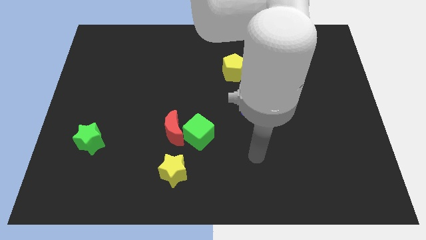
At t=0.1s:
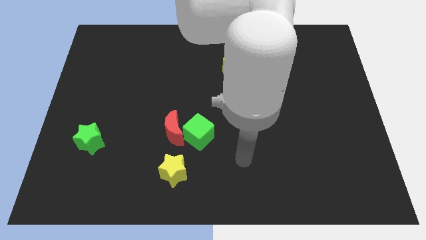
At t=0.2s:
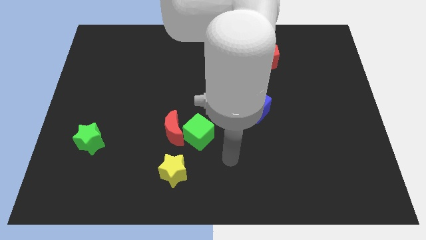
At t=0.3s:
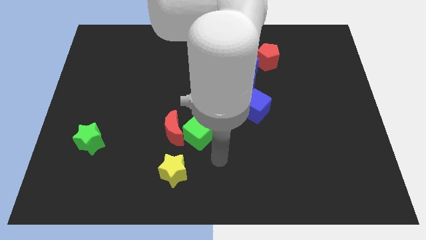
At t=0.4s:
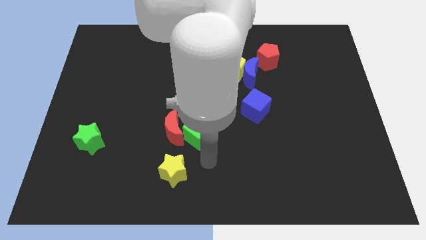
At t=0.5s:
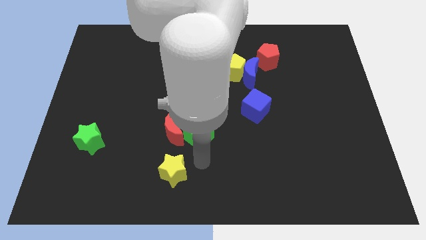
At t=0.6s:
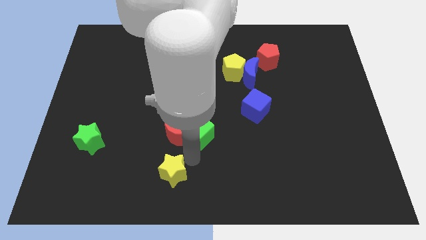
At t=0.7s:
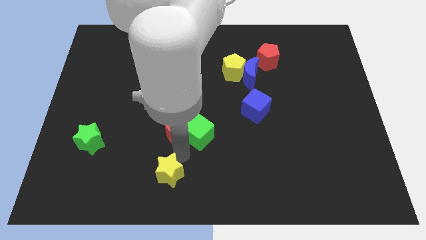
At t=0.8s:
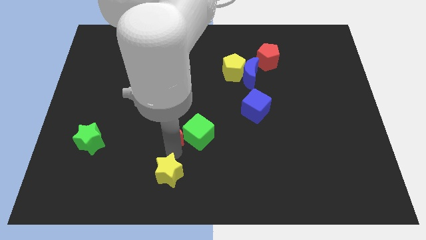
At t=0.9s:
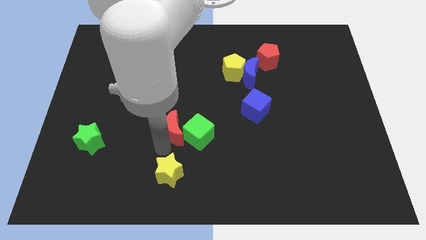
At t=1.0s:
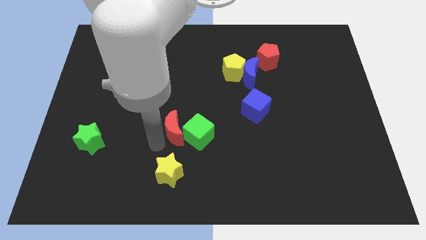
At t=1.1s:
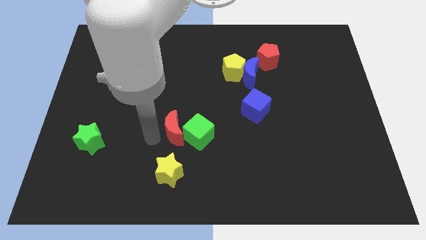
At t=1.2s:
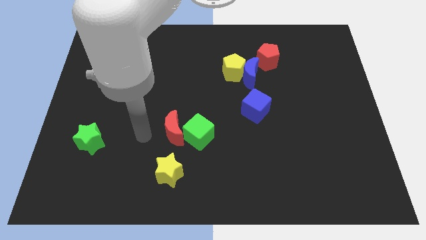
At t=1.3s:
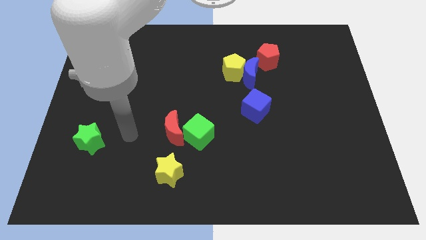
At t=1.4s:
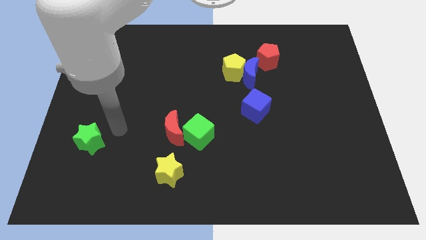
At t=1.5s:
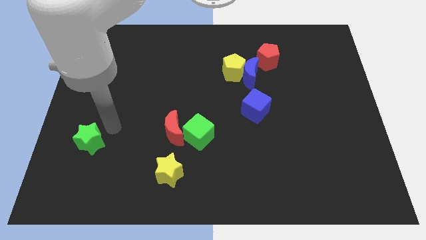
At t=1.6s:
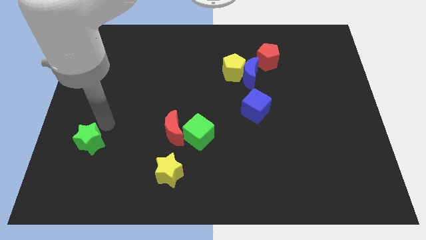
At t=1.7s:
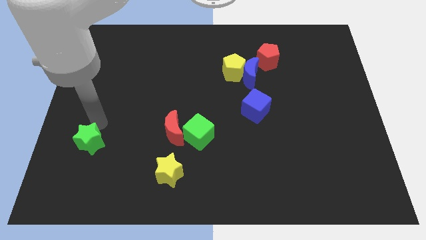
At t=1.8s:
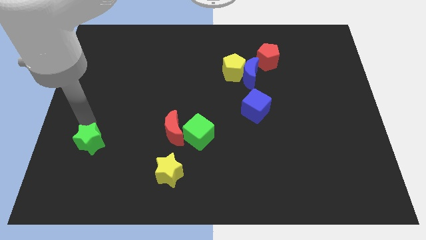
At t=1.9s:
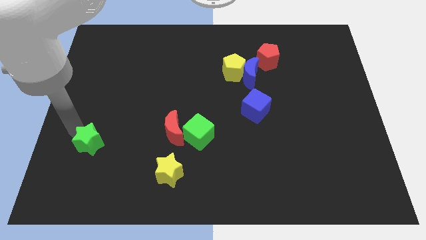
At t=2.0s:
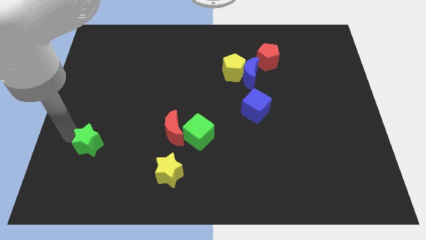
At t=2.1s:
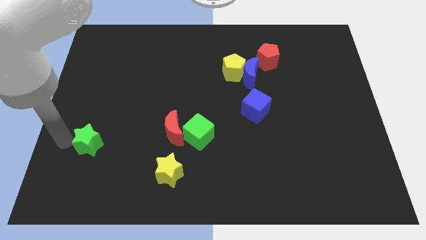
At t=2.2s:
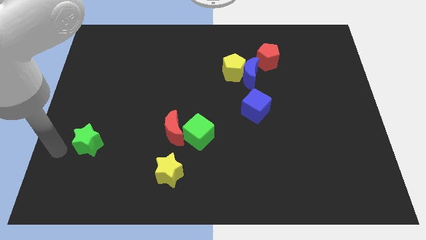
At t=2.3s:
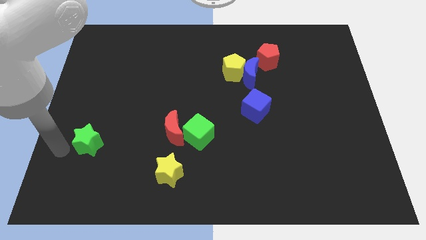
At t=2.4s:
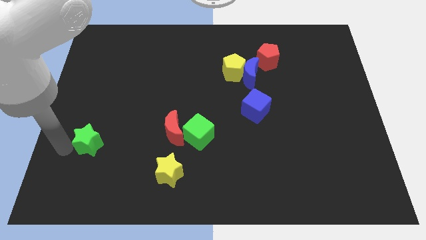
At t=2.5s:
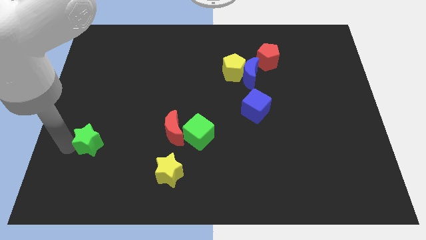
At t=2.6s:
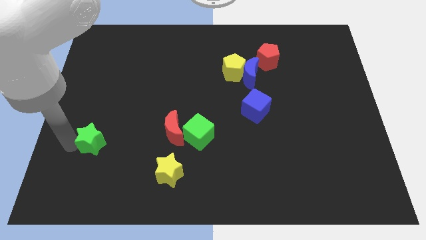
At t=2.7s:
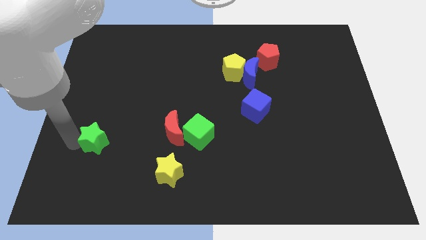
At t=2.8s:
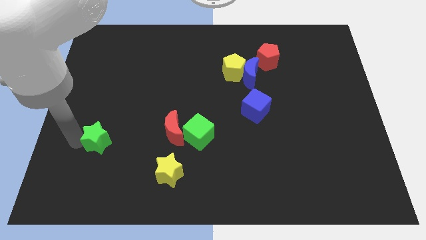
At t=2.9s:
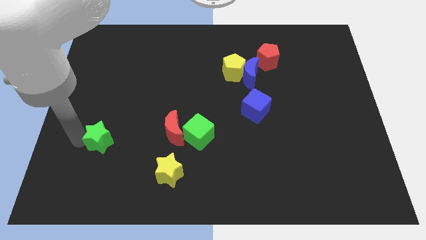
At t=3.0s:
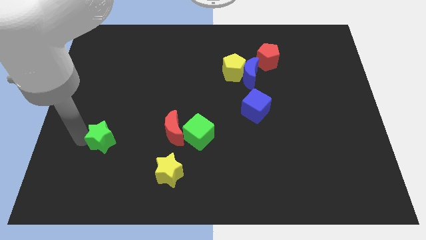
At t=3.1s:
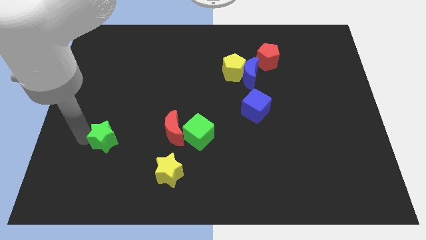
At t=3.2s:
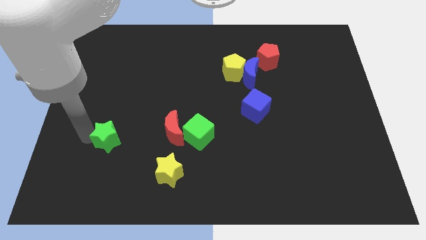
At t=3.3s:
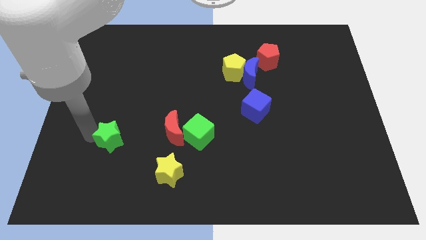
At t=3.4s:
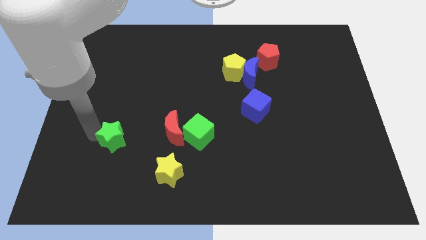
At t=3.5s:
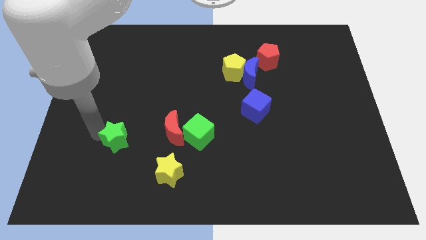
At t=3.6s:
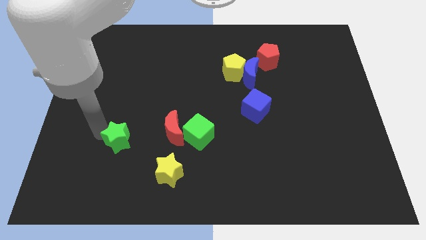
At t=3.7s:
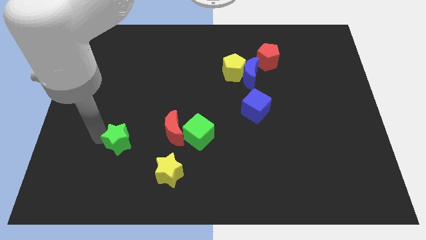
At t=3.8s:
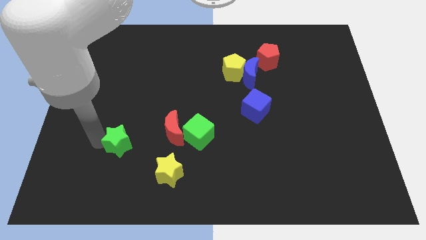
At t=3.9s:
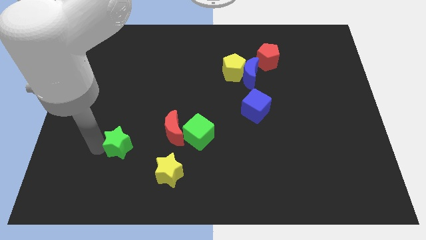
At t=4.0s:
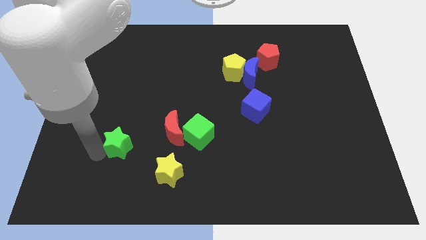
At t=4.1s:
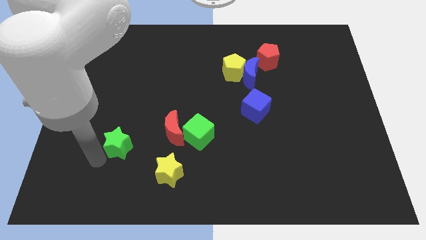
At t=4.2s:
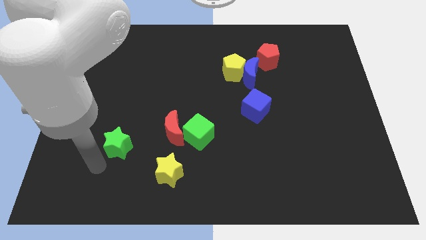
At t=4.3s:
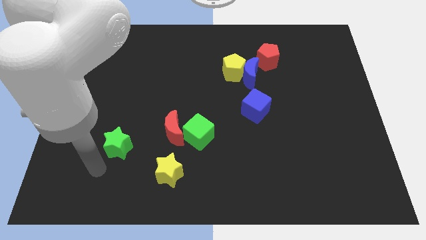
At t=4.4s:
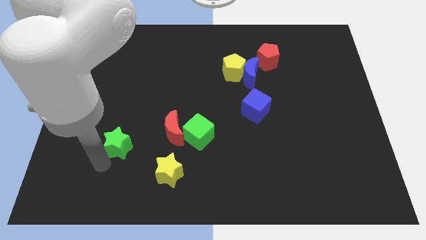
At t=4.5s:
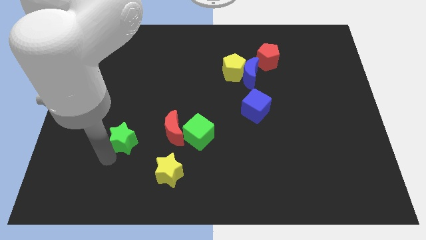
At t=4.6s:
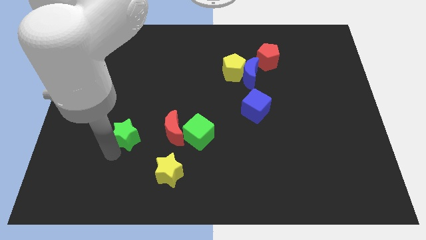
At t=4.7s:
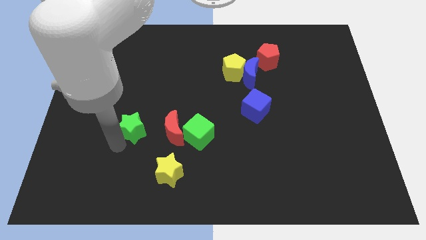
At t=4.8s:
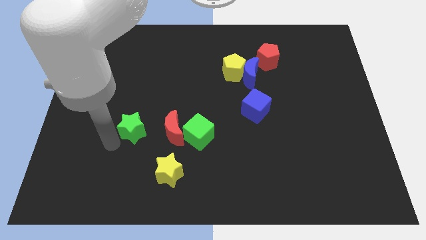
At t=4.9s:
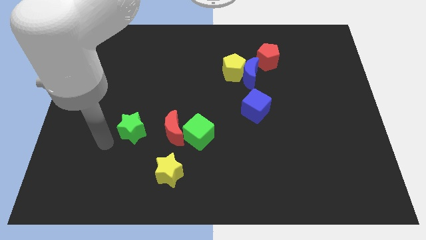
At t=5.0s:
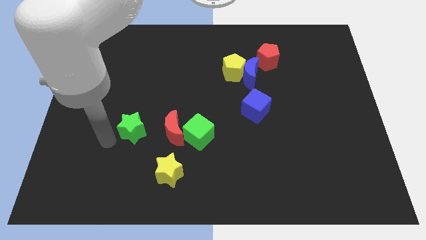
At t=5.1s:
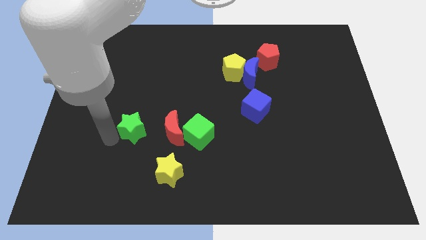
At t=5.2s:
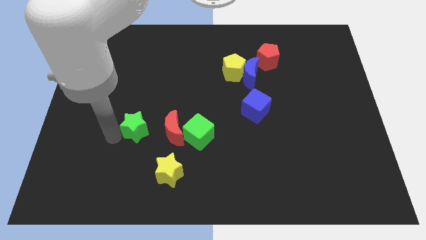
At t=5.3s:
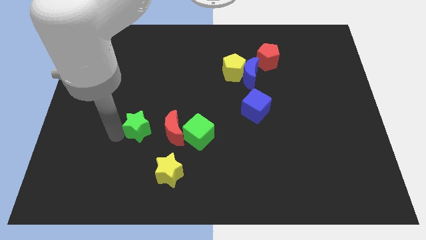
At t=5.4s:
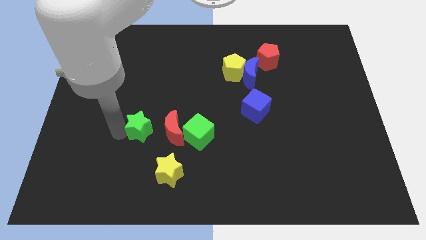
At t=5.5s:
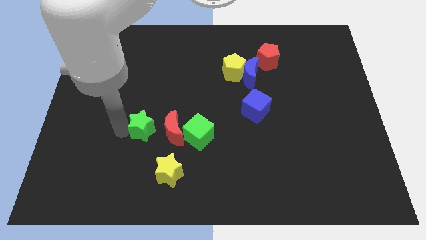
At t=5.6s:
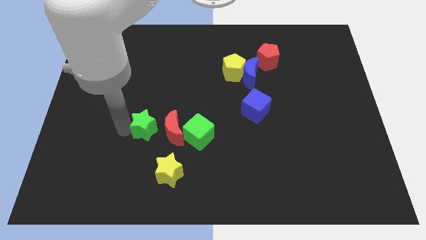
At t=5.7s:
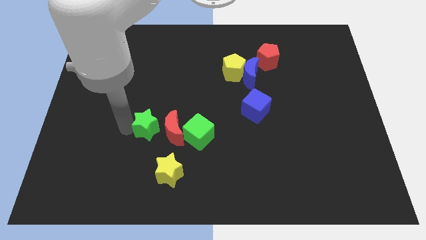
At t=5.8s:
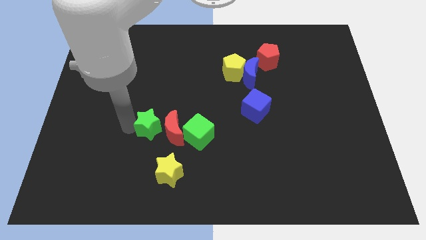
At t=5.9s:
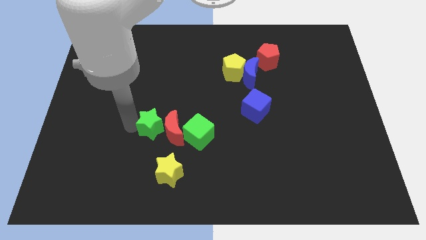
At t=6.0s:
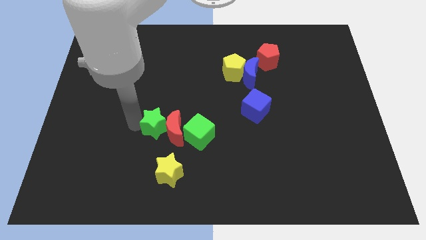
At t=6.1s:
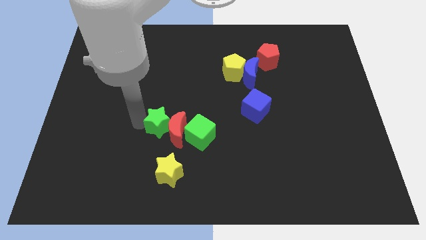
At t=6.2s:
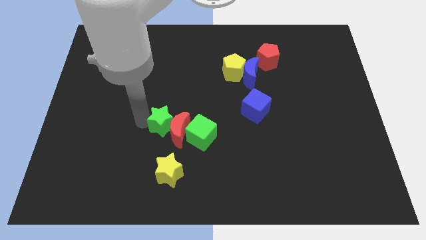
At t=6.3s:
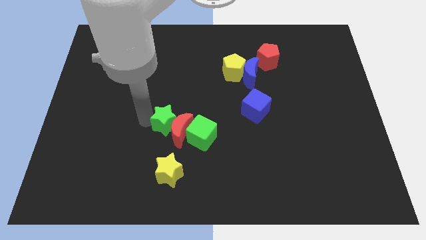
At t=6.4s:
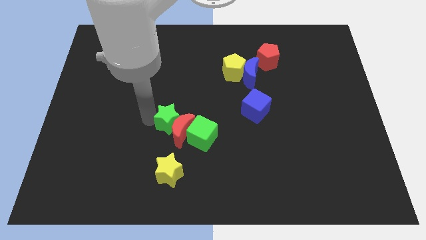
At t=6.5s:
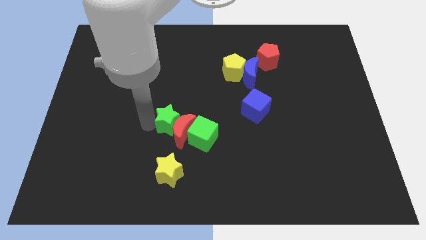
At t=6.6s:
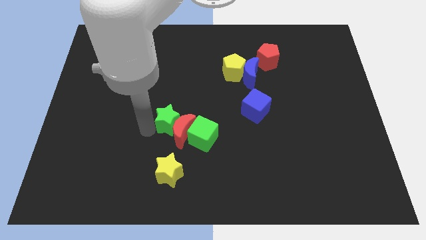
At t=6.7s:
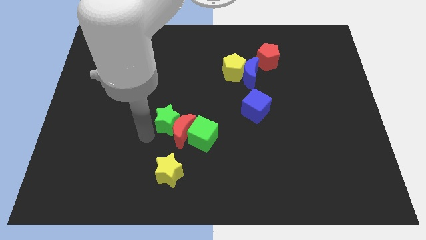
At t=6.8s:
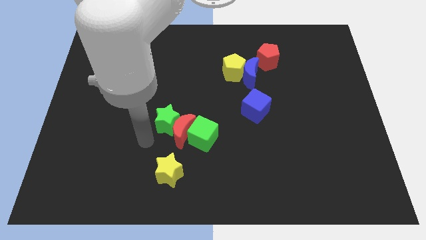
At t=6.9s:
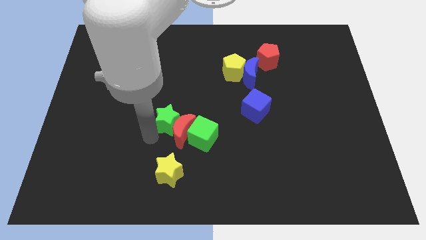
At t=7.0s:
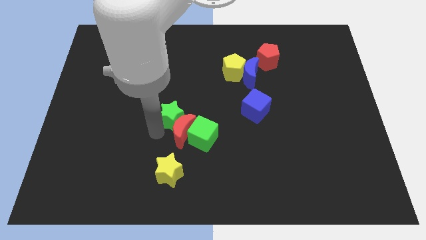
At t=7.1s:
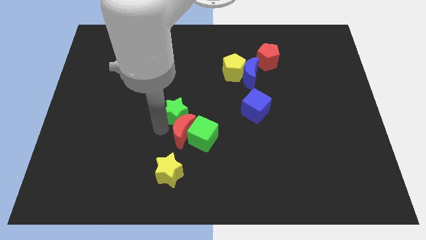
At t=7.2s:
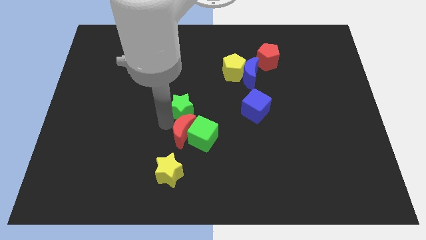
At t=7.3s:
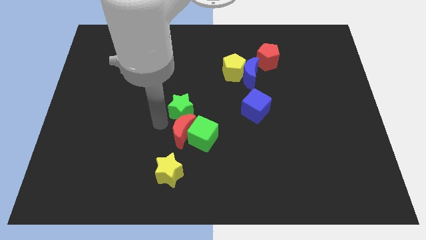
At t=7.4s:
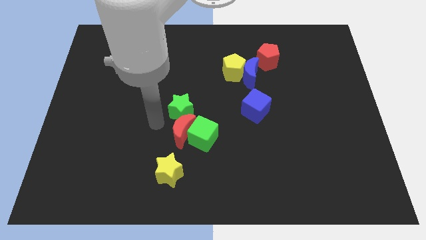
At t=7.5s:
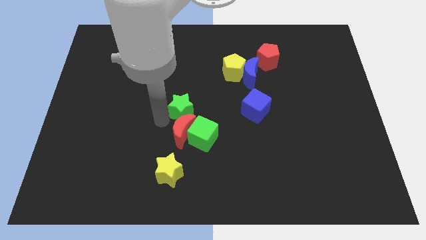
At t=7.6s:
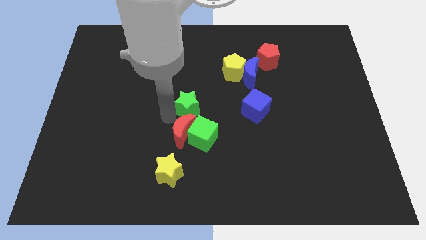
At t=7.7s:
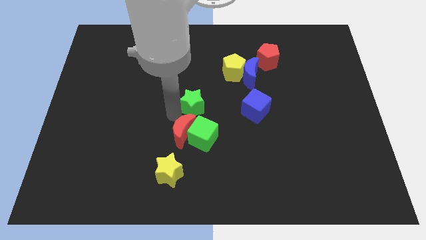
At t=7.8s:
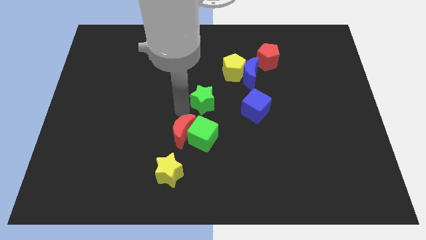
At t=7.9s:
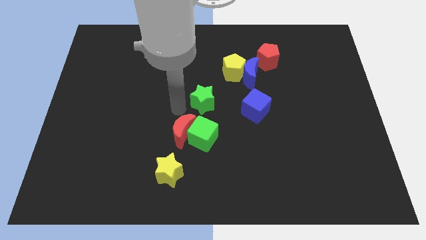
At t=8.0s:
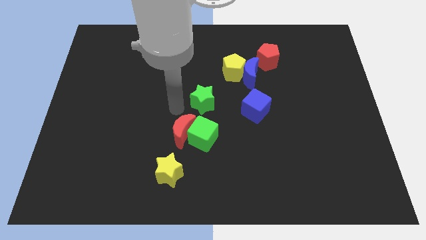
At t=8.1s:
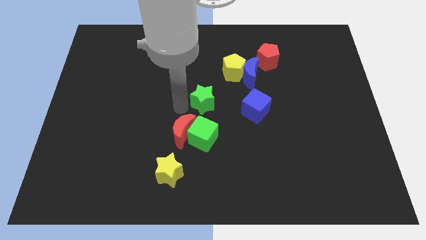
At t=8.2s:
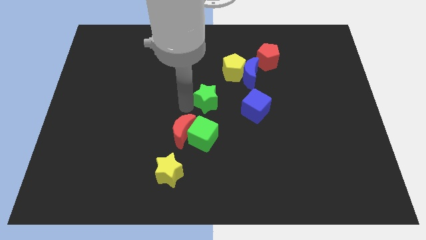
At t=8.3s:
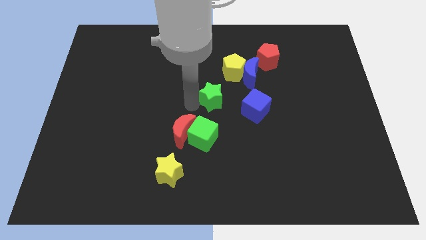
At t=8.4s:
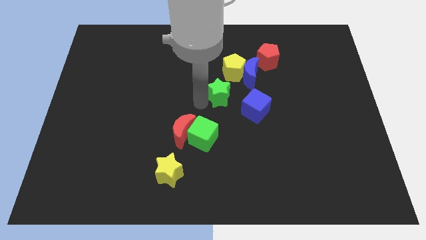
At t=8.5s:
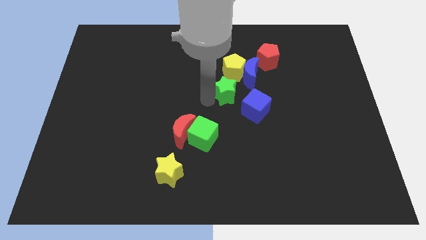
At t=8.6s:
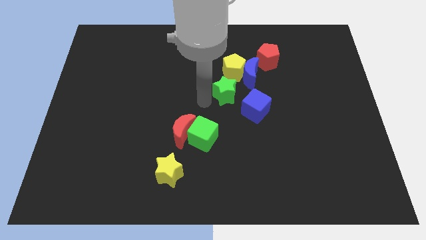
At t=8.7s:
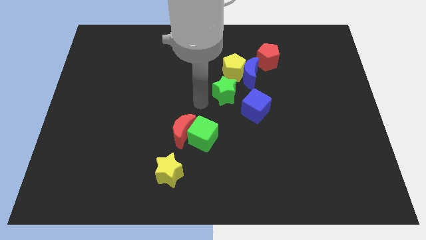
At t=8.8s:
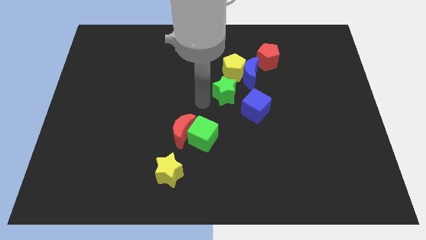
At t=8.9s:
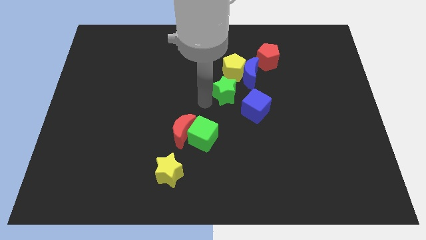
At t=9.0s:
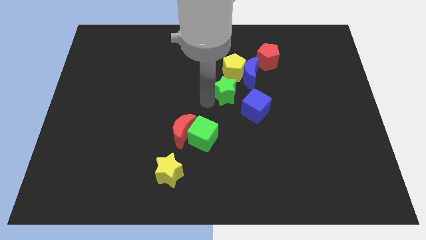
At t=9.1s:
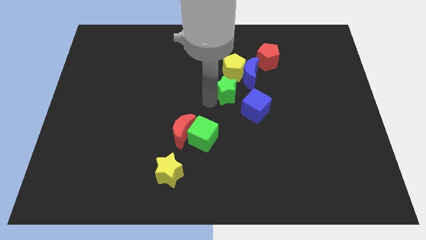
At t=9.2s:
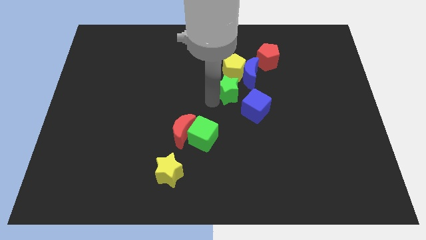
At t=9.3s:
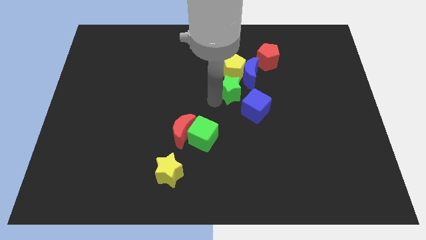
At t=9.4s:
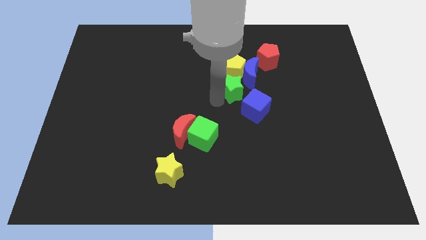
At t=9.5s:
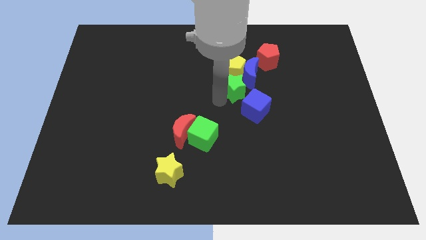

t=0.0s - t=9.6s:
slide the green star close to the yellow pentagon
